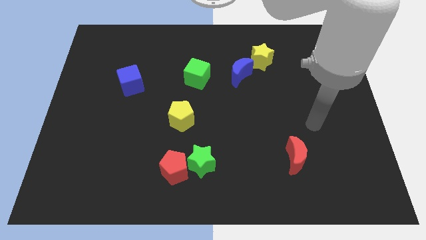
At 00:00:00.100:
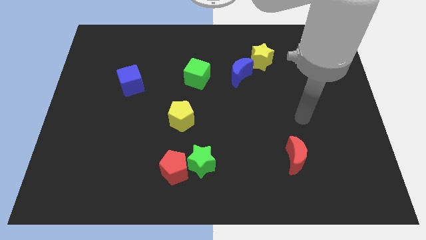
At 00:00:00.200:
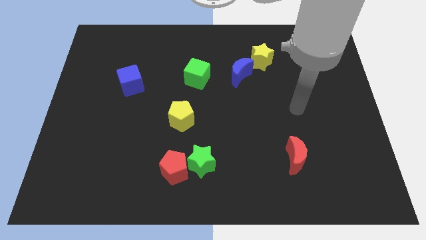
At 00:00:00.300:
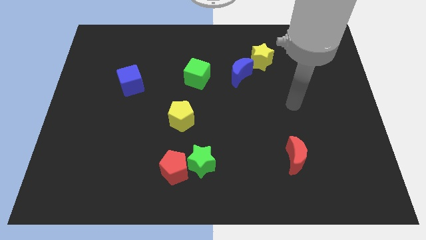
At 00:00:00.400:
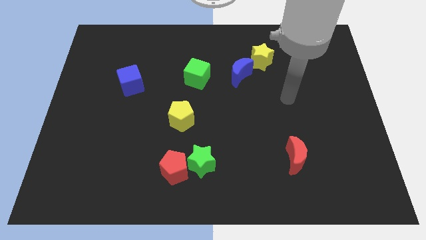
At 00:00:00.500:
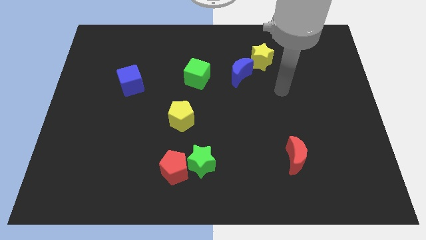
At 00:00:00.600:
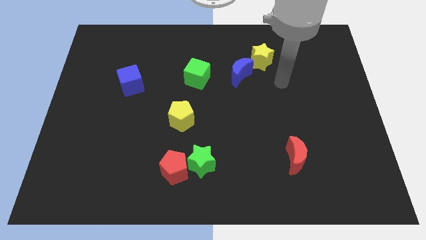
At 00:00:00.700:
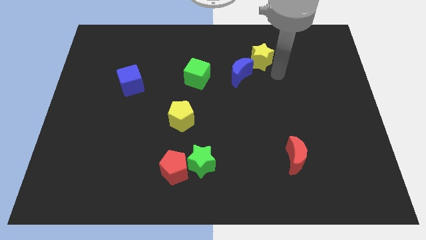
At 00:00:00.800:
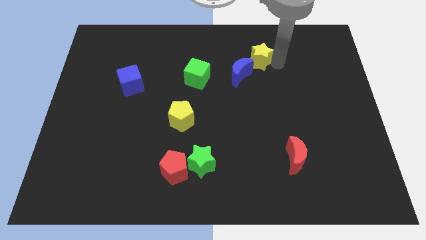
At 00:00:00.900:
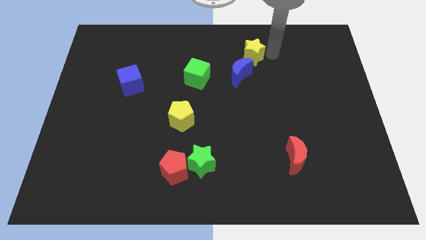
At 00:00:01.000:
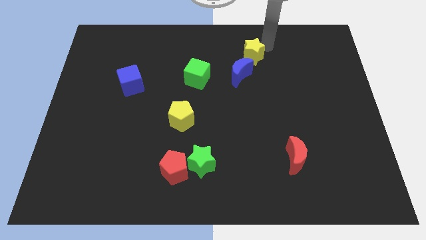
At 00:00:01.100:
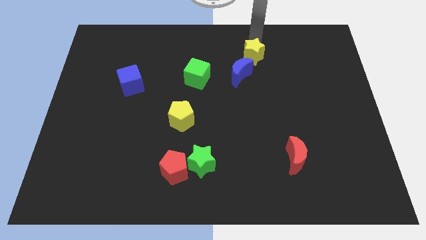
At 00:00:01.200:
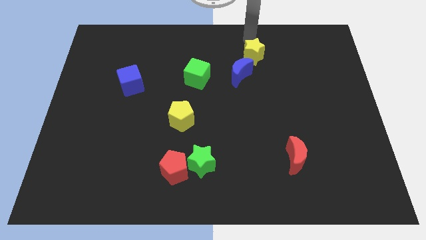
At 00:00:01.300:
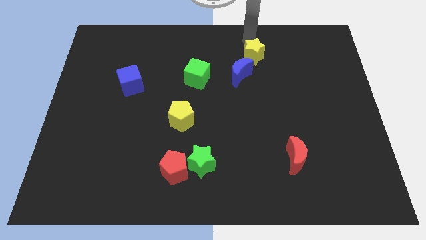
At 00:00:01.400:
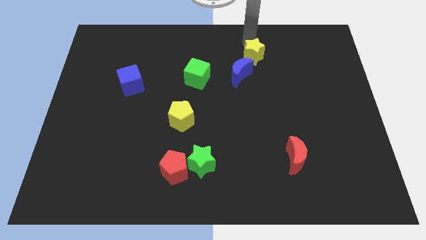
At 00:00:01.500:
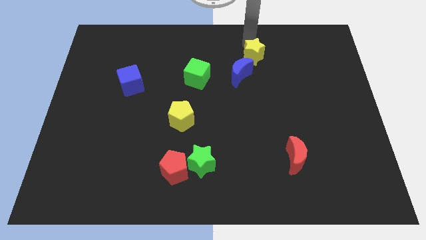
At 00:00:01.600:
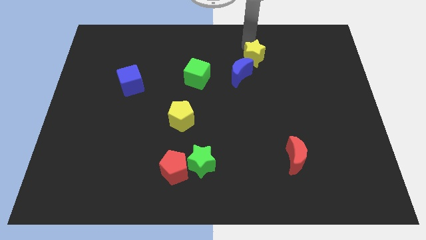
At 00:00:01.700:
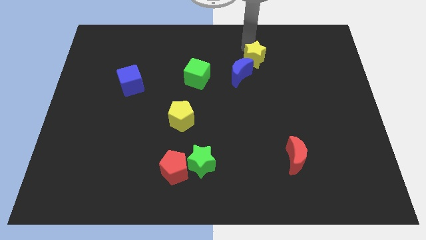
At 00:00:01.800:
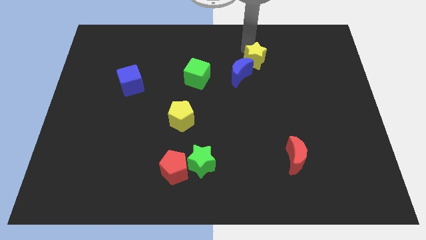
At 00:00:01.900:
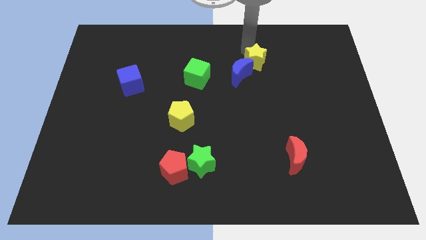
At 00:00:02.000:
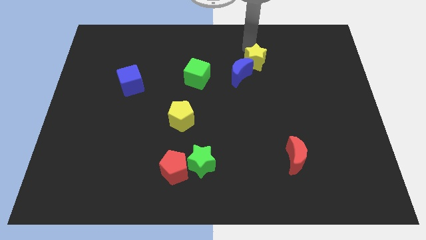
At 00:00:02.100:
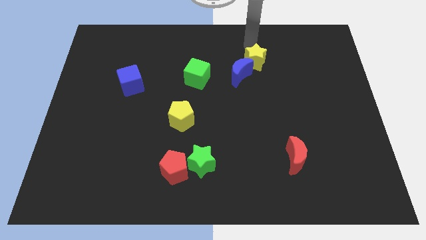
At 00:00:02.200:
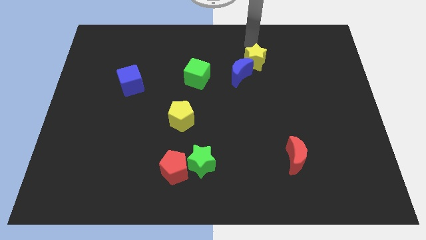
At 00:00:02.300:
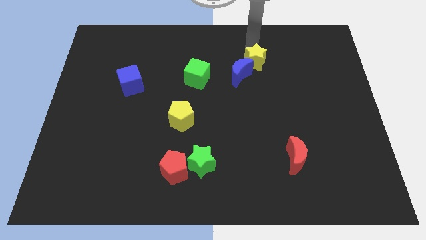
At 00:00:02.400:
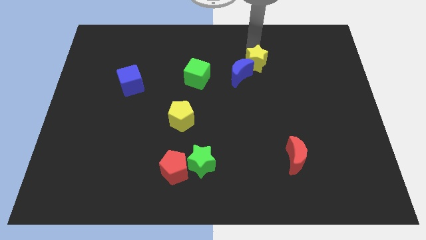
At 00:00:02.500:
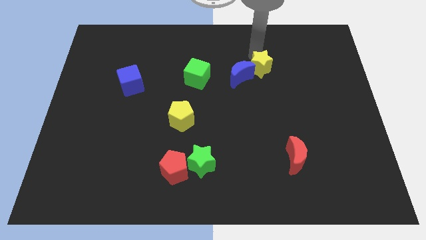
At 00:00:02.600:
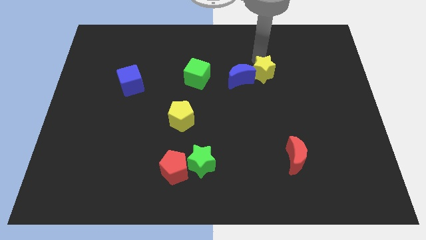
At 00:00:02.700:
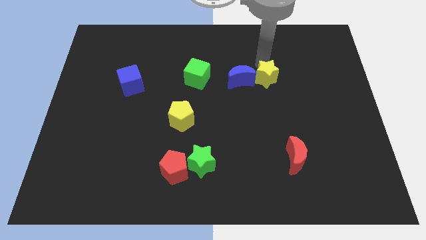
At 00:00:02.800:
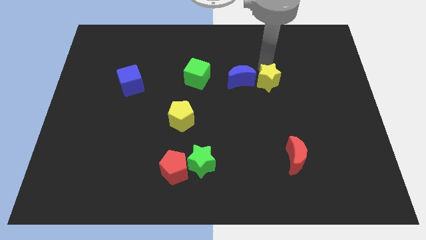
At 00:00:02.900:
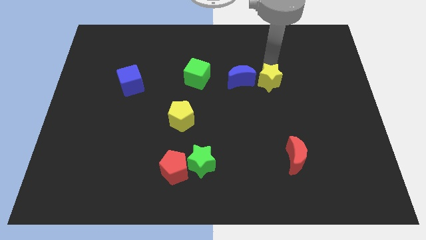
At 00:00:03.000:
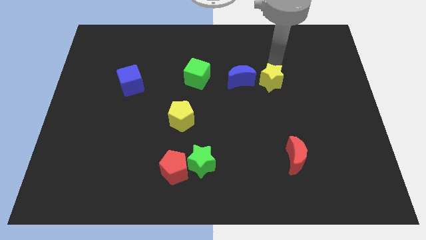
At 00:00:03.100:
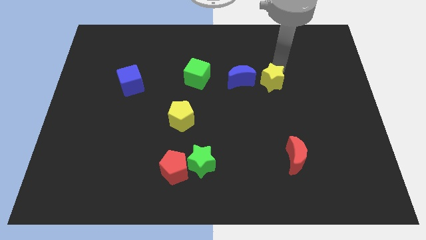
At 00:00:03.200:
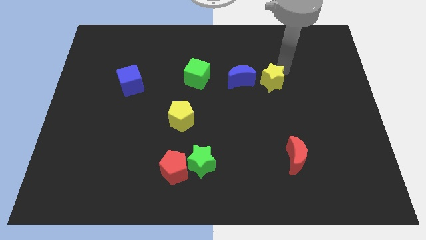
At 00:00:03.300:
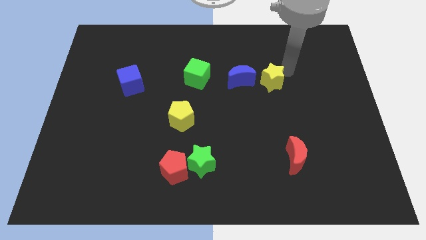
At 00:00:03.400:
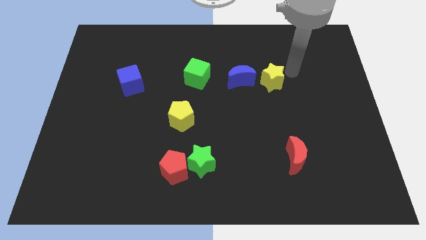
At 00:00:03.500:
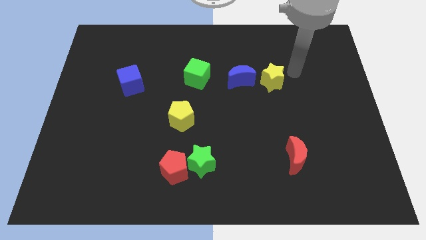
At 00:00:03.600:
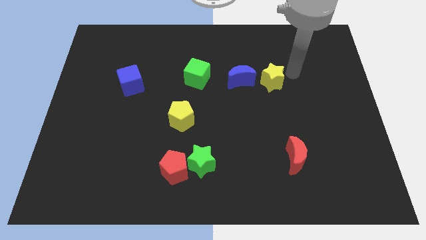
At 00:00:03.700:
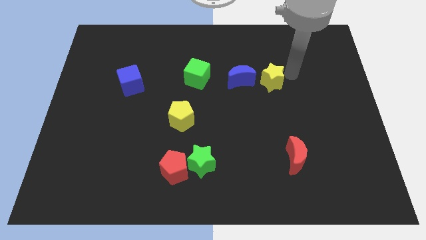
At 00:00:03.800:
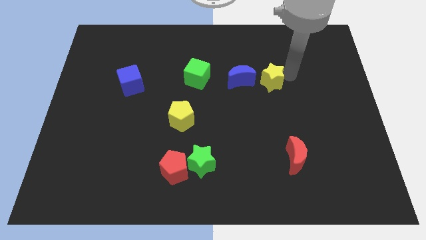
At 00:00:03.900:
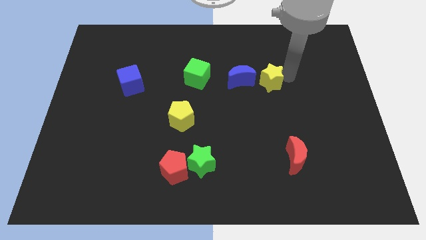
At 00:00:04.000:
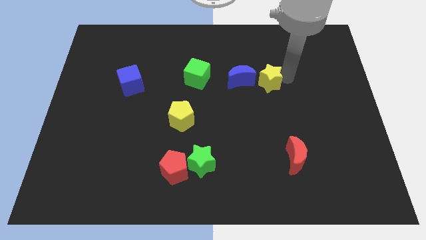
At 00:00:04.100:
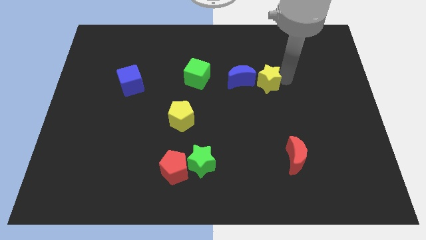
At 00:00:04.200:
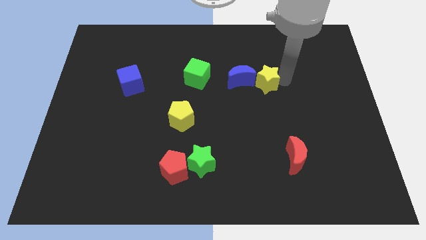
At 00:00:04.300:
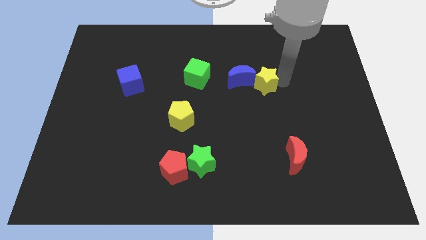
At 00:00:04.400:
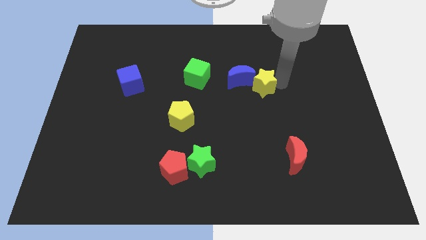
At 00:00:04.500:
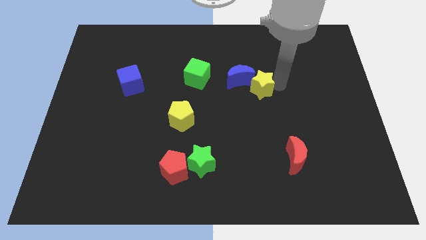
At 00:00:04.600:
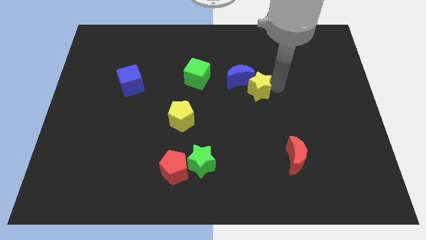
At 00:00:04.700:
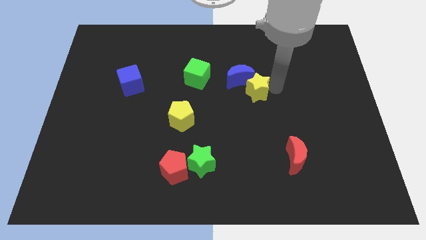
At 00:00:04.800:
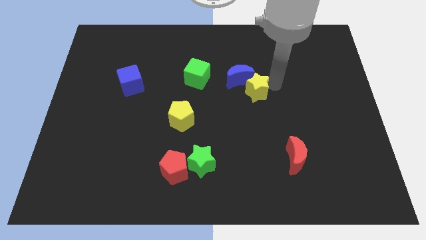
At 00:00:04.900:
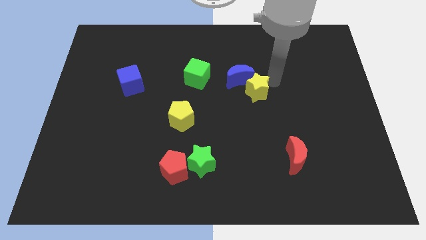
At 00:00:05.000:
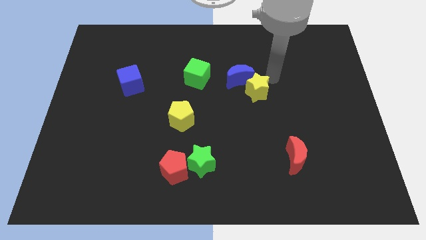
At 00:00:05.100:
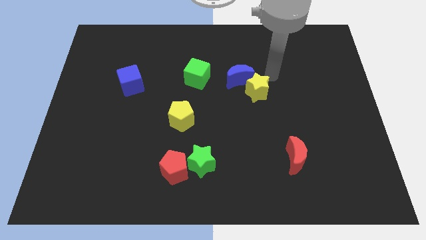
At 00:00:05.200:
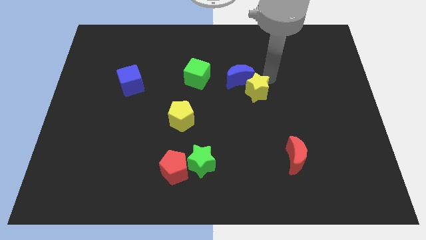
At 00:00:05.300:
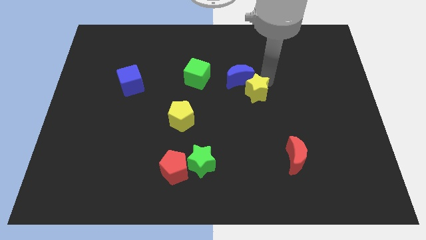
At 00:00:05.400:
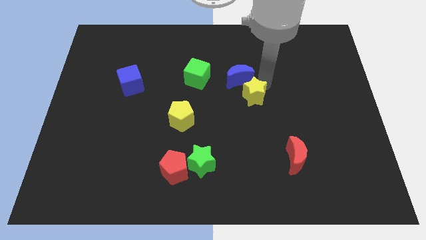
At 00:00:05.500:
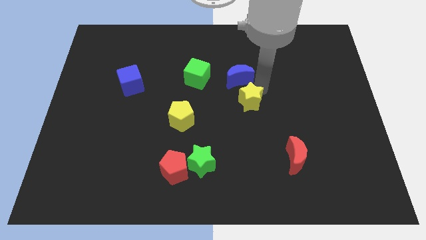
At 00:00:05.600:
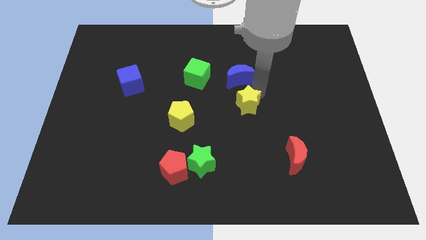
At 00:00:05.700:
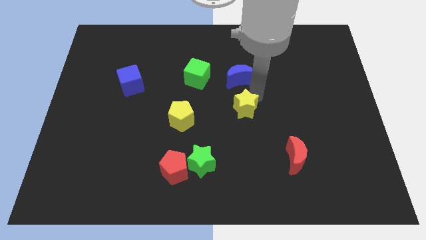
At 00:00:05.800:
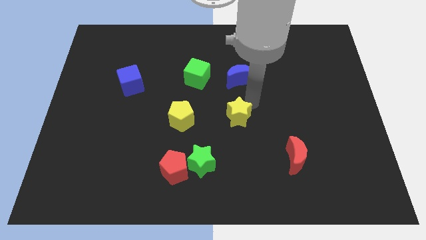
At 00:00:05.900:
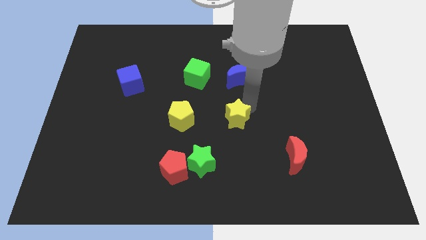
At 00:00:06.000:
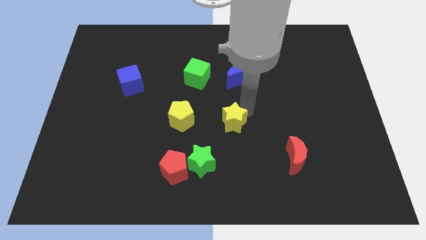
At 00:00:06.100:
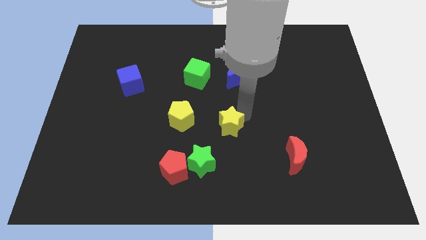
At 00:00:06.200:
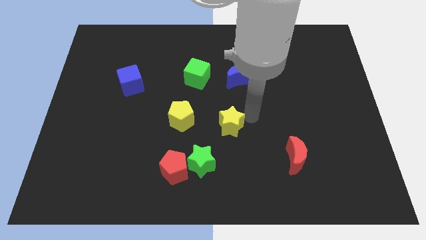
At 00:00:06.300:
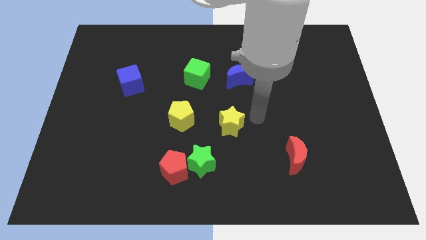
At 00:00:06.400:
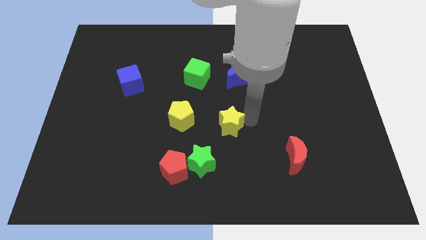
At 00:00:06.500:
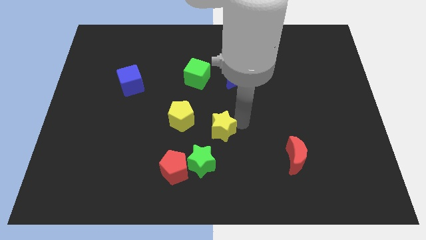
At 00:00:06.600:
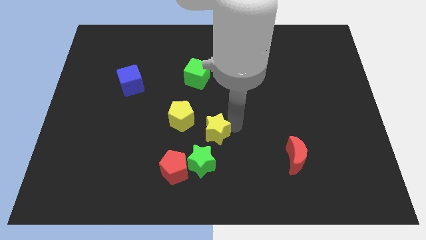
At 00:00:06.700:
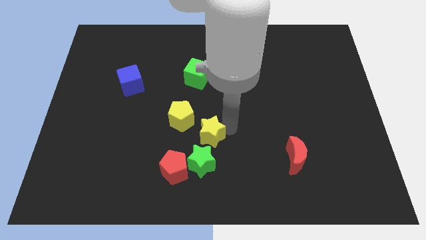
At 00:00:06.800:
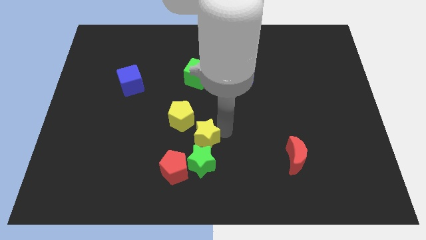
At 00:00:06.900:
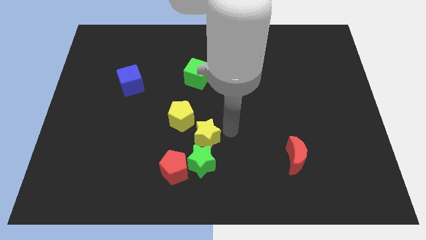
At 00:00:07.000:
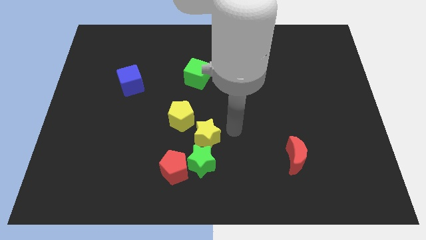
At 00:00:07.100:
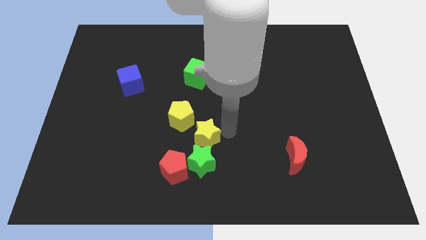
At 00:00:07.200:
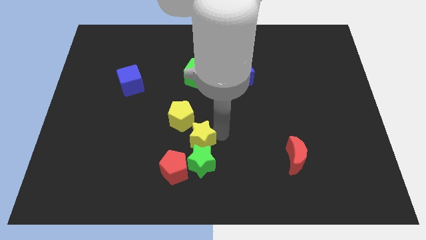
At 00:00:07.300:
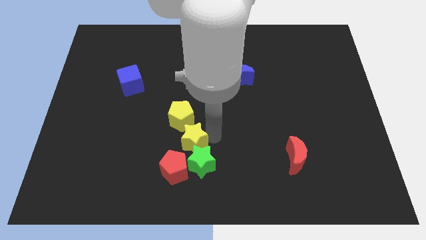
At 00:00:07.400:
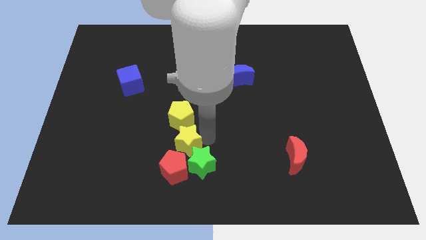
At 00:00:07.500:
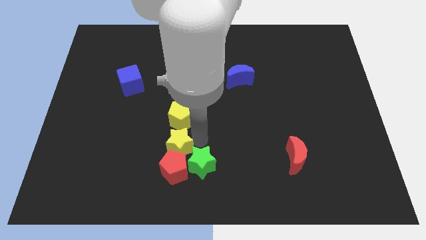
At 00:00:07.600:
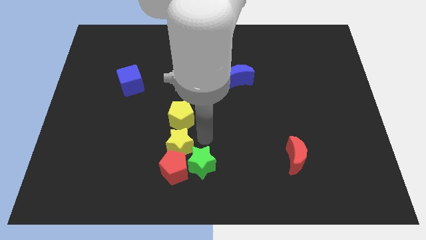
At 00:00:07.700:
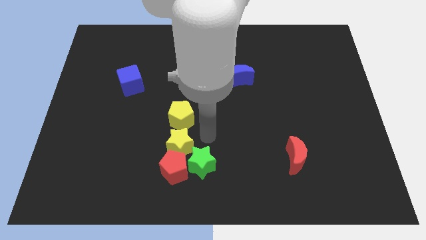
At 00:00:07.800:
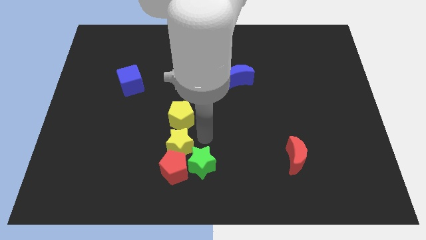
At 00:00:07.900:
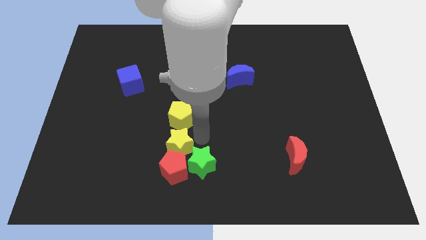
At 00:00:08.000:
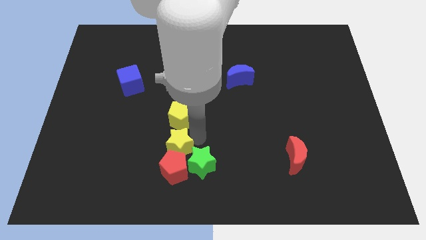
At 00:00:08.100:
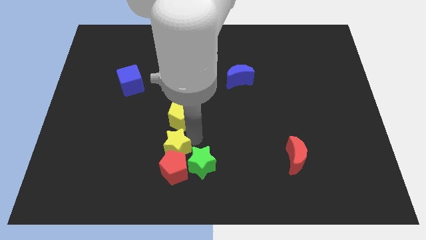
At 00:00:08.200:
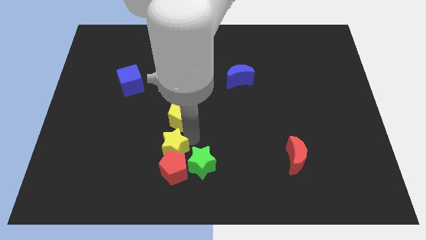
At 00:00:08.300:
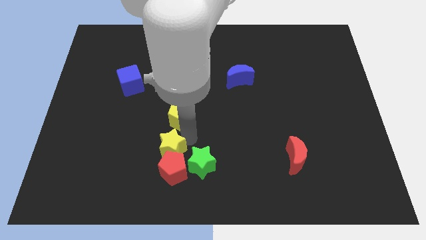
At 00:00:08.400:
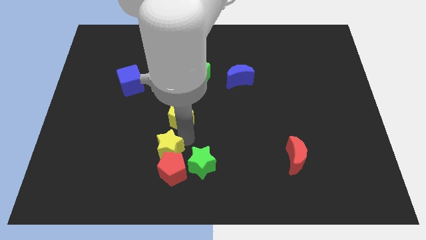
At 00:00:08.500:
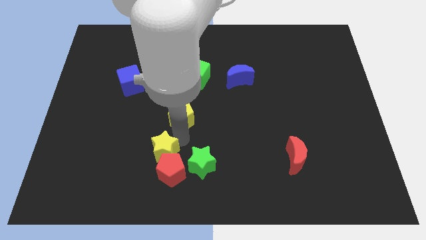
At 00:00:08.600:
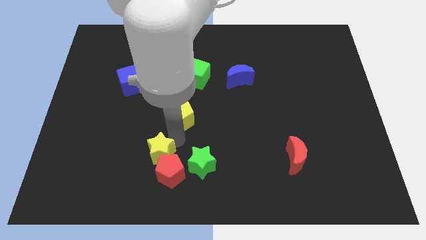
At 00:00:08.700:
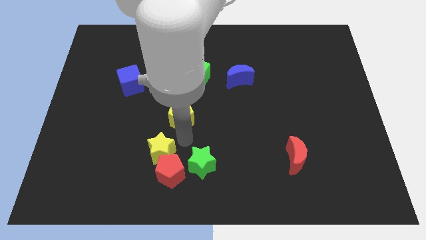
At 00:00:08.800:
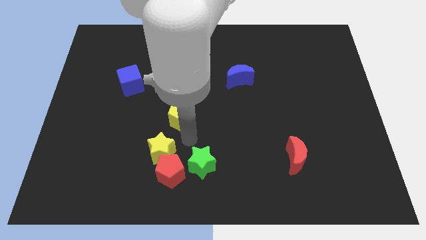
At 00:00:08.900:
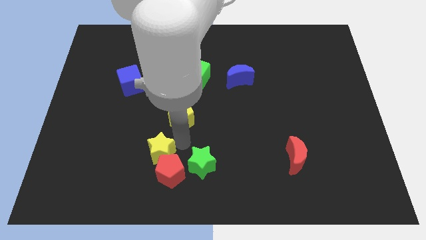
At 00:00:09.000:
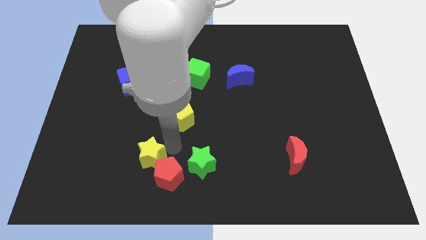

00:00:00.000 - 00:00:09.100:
move the yellow star to the left of the red pentagon
